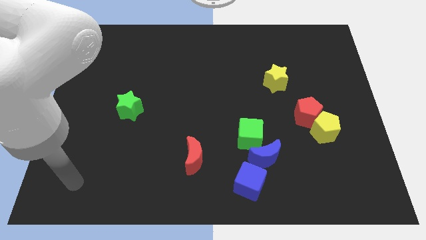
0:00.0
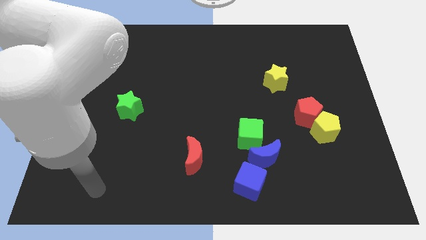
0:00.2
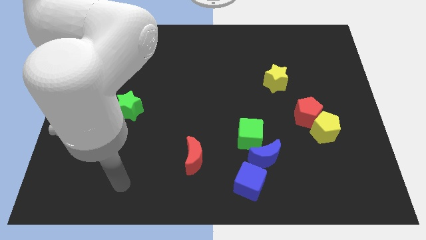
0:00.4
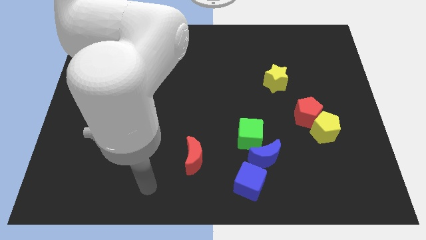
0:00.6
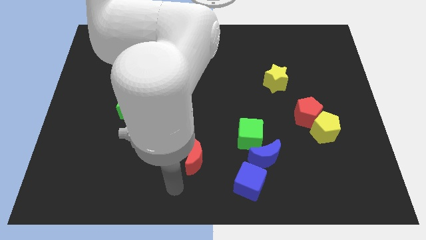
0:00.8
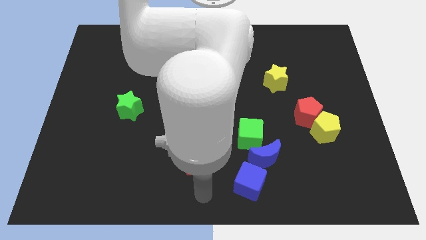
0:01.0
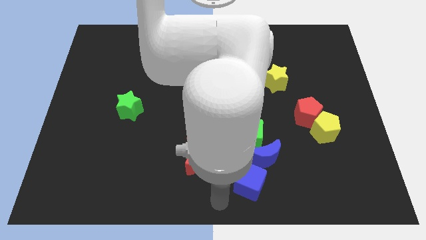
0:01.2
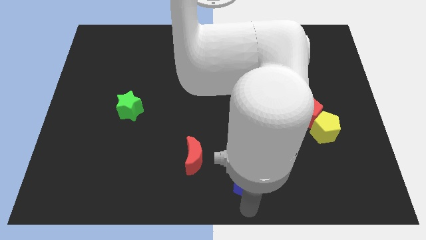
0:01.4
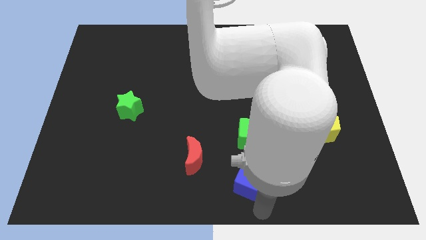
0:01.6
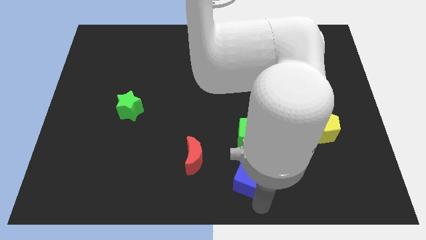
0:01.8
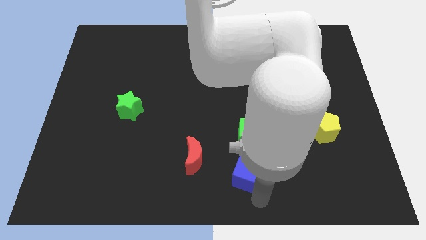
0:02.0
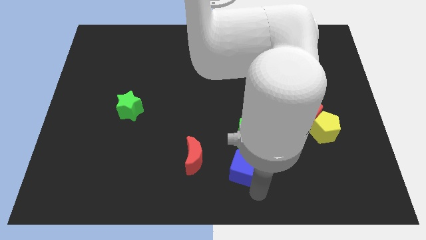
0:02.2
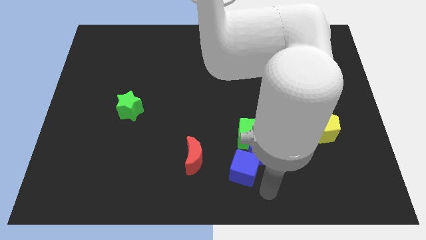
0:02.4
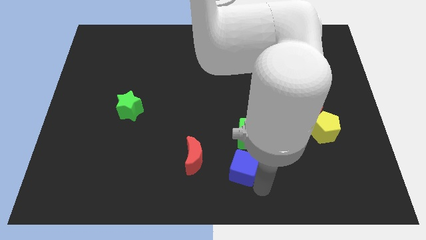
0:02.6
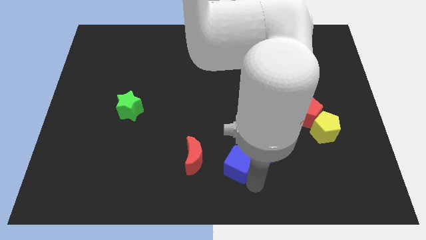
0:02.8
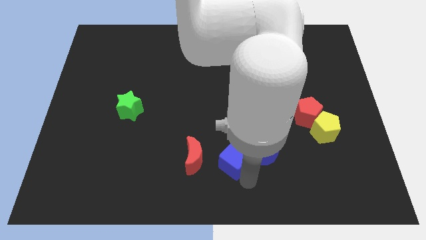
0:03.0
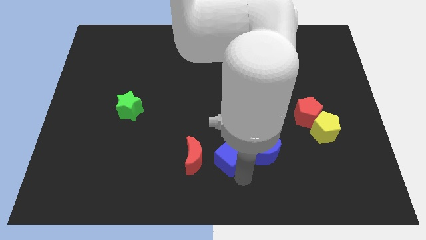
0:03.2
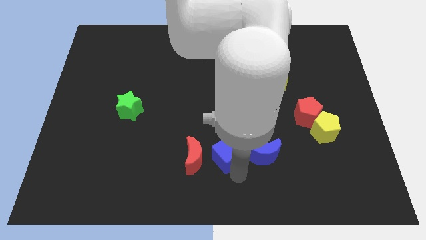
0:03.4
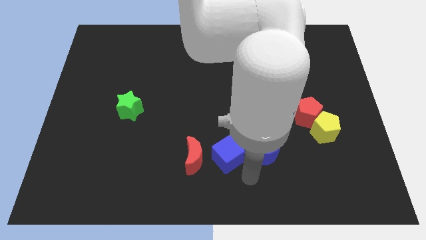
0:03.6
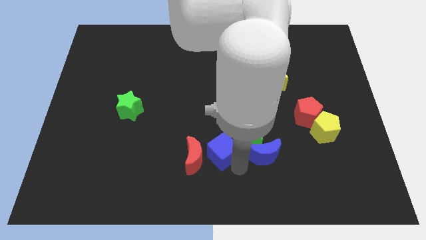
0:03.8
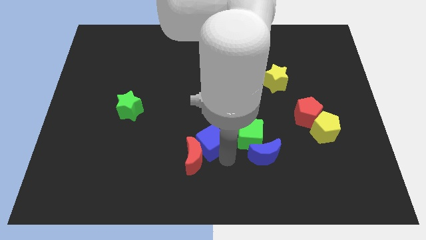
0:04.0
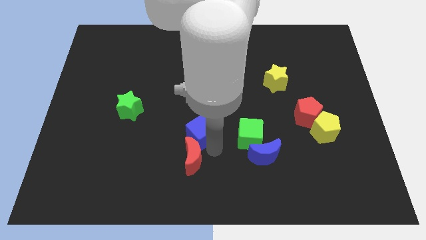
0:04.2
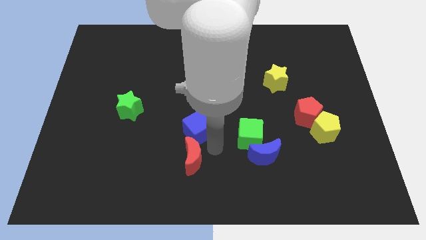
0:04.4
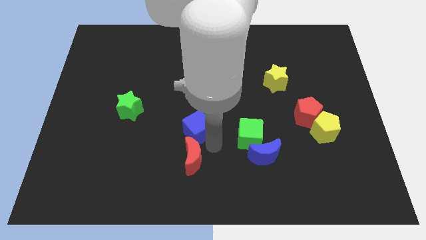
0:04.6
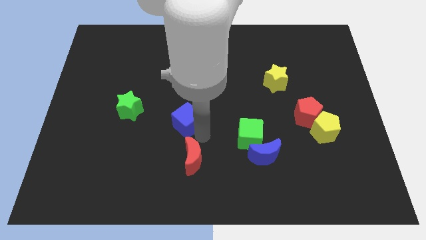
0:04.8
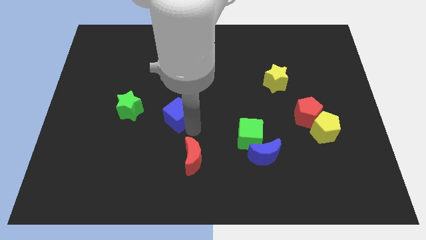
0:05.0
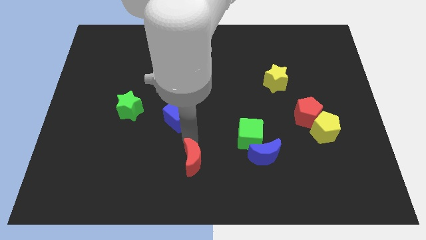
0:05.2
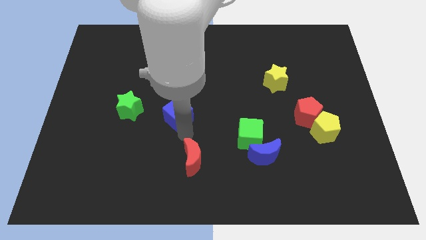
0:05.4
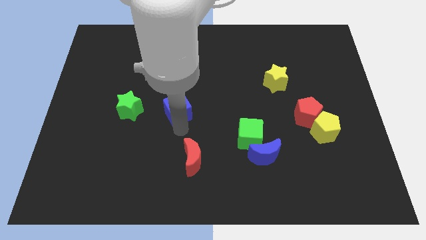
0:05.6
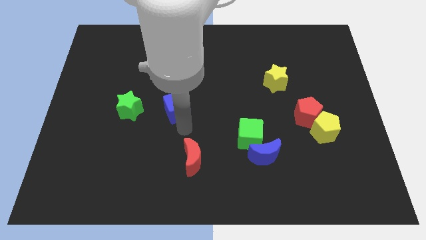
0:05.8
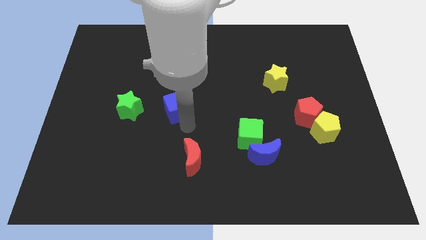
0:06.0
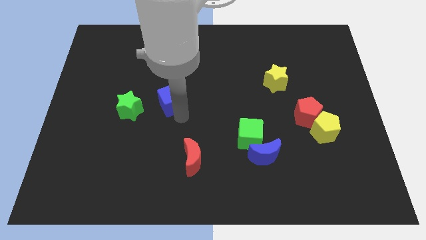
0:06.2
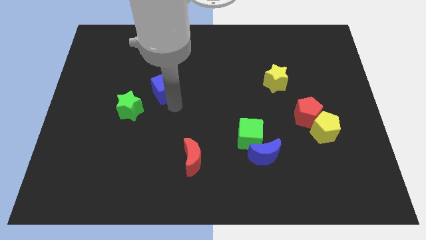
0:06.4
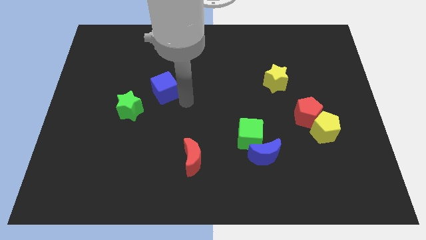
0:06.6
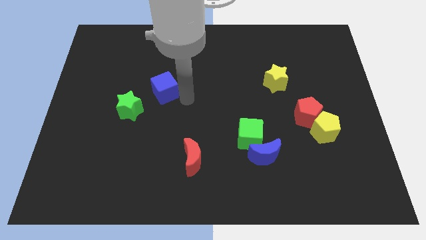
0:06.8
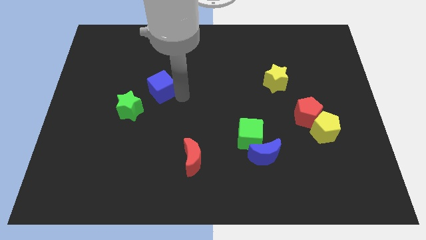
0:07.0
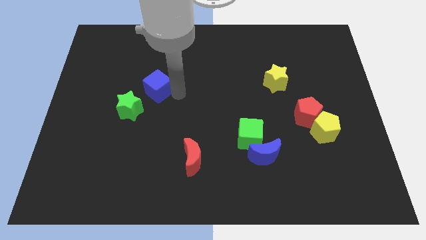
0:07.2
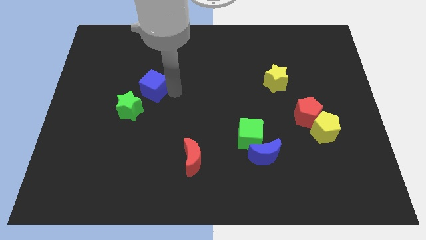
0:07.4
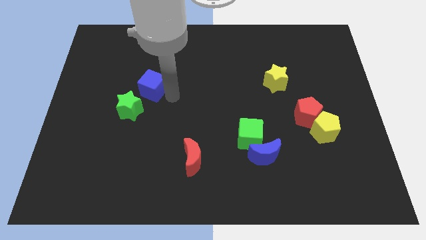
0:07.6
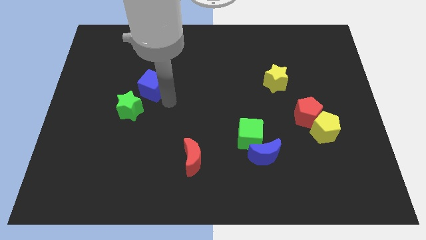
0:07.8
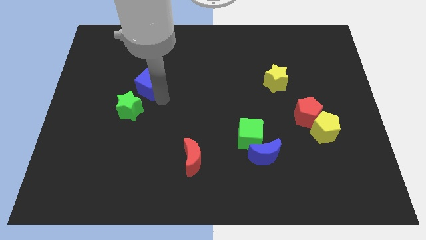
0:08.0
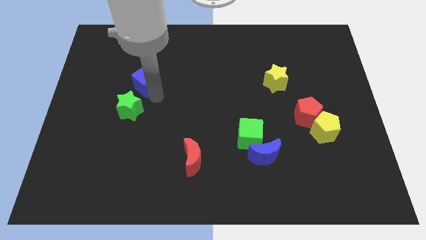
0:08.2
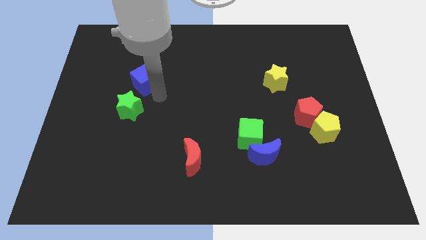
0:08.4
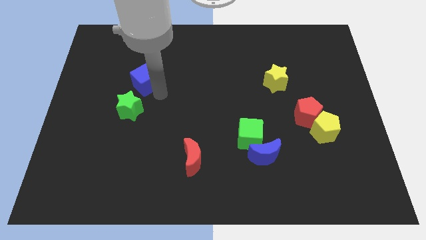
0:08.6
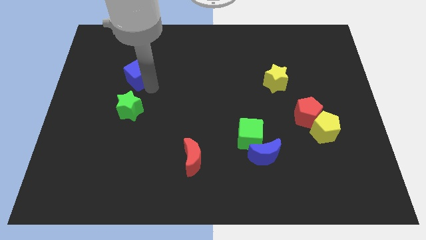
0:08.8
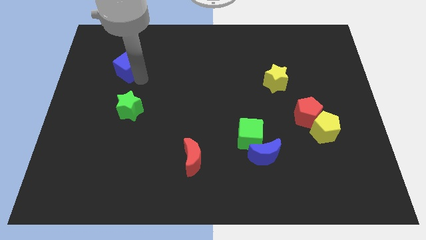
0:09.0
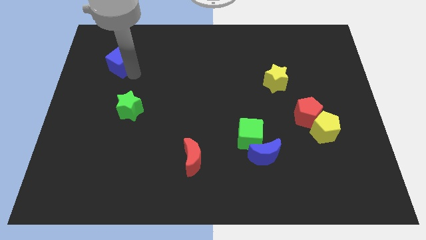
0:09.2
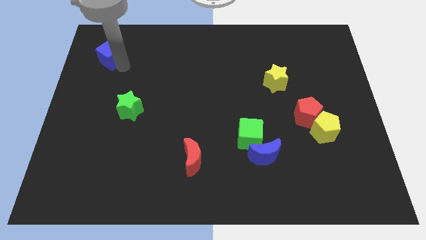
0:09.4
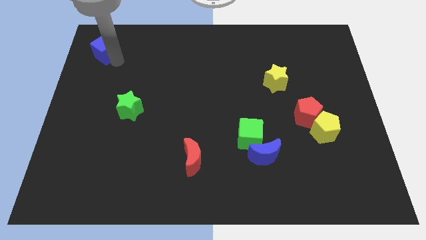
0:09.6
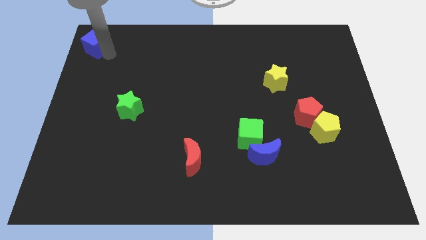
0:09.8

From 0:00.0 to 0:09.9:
move the blue cube to the top left of the board

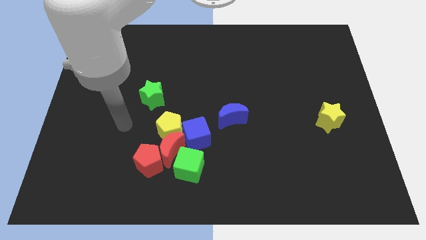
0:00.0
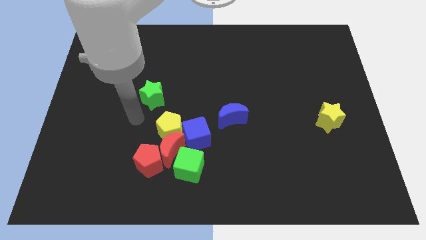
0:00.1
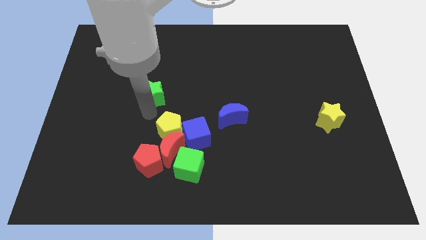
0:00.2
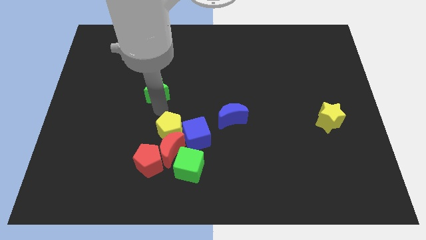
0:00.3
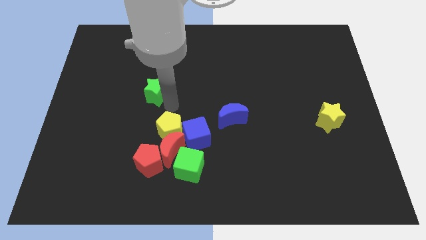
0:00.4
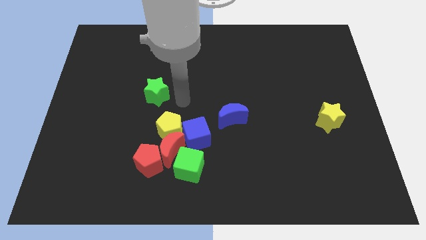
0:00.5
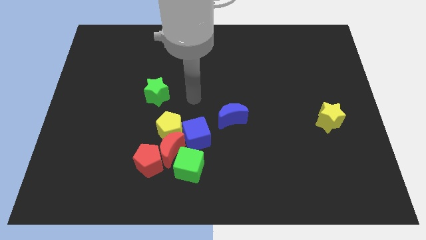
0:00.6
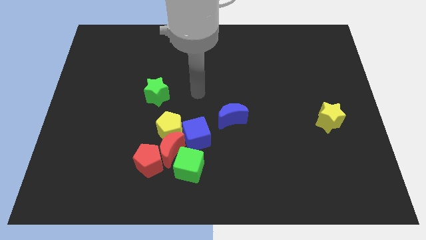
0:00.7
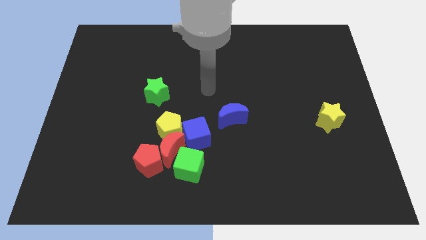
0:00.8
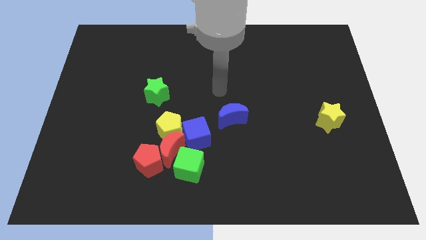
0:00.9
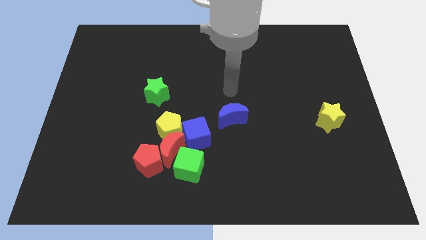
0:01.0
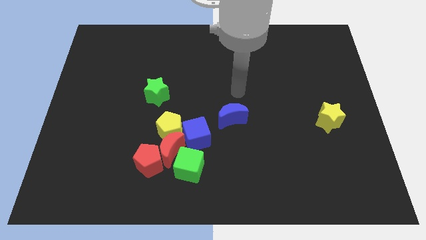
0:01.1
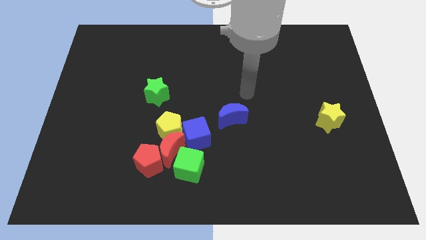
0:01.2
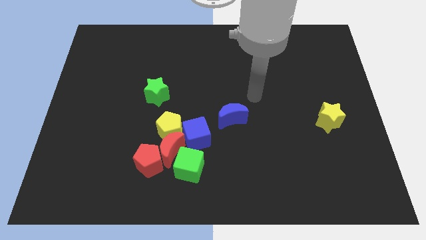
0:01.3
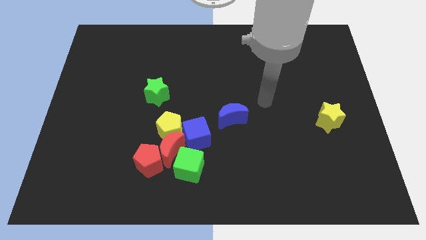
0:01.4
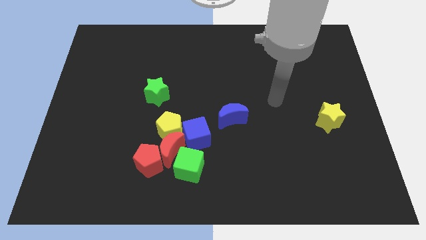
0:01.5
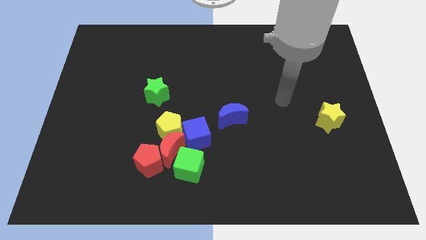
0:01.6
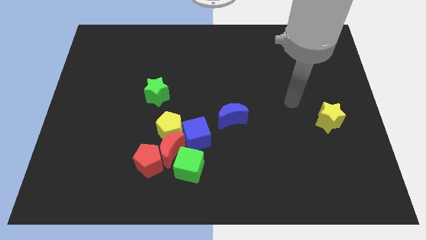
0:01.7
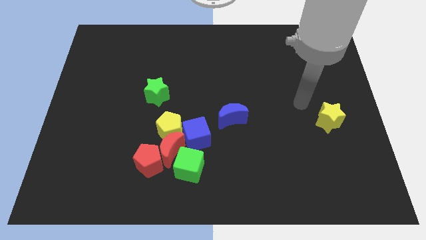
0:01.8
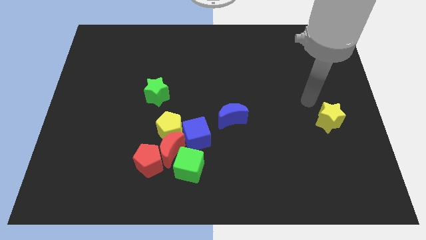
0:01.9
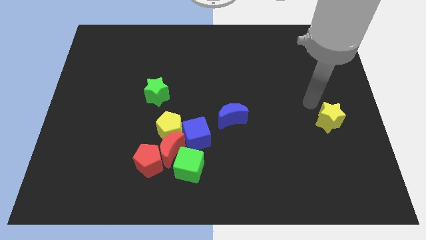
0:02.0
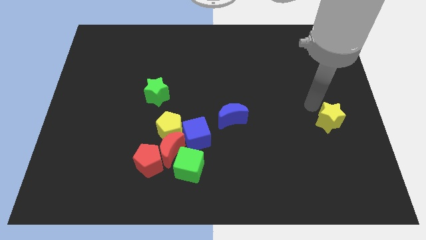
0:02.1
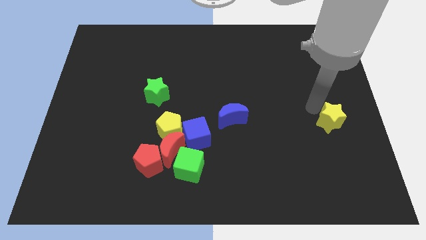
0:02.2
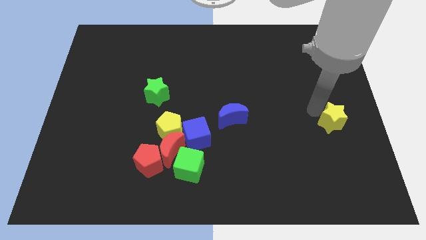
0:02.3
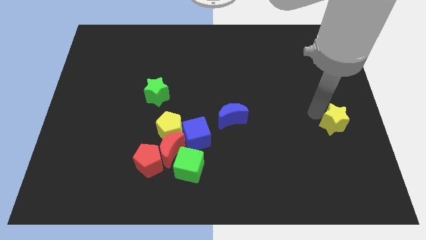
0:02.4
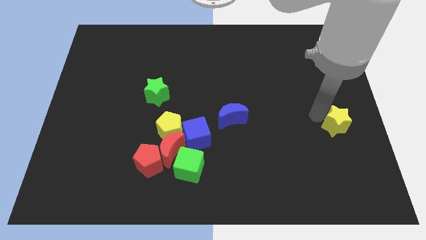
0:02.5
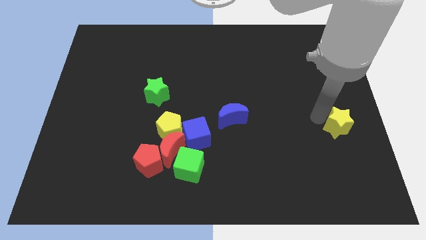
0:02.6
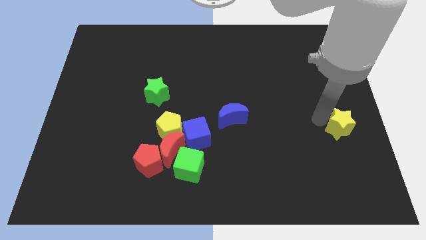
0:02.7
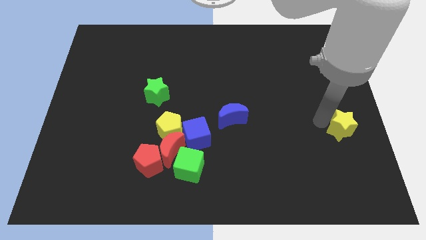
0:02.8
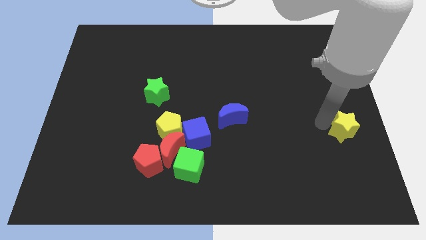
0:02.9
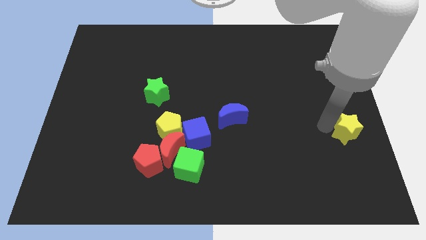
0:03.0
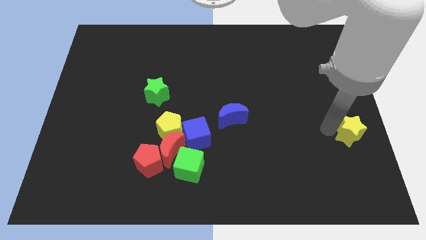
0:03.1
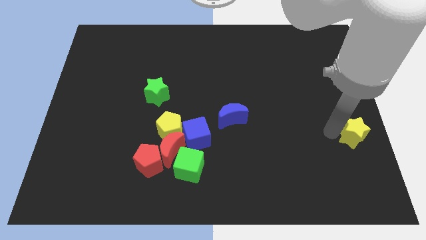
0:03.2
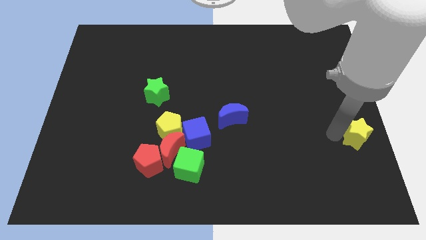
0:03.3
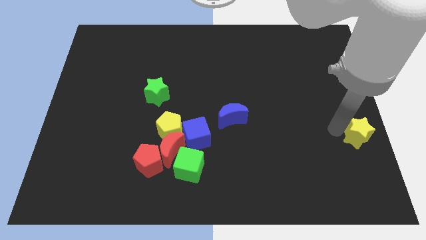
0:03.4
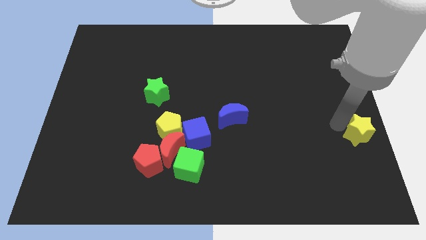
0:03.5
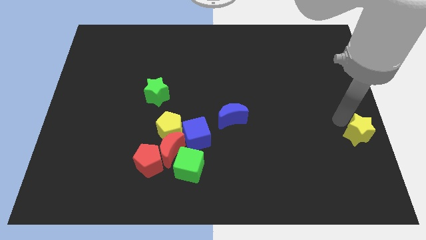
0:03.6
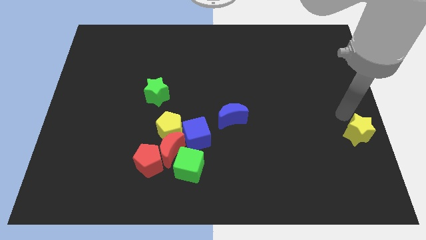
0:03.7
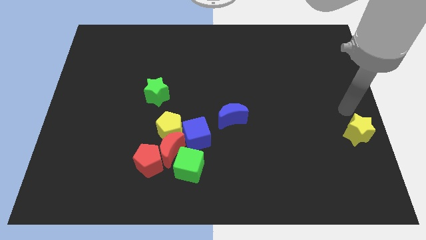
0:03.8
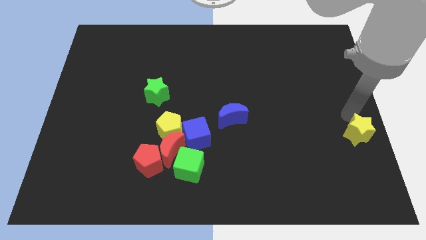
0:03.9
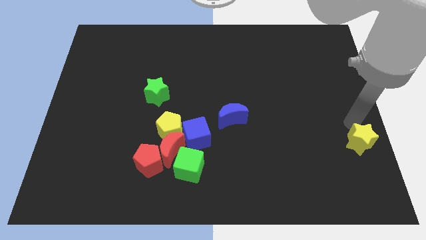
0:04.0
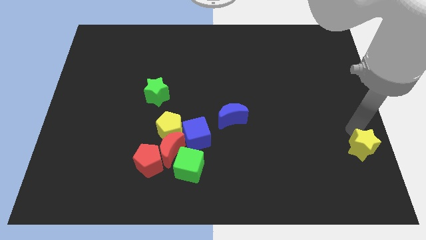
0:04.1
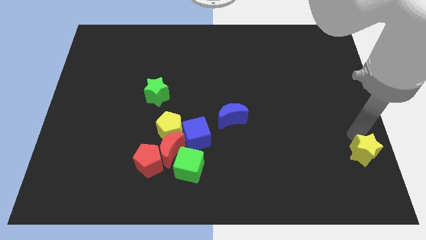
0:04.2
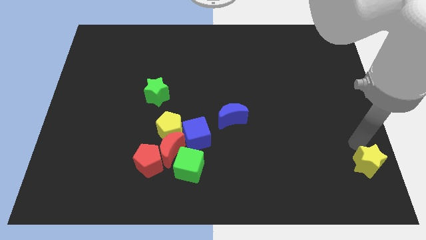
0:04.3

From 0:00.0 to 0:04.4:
slide the yellow star to the lower right corner
